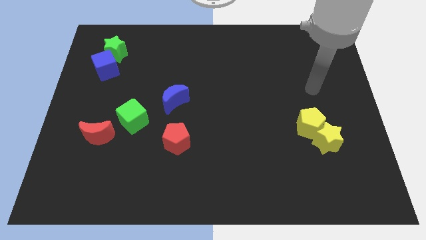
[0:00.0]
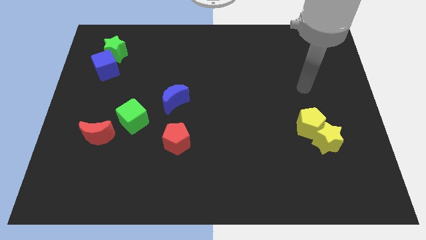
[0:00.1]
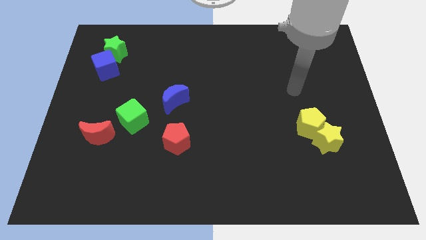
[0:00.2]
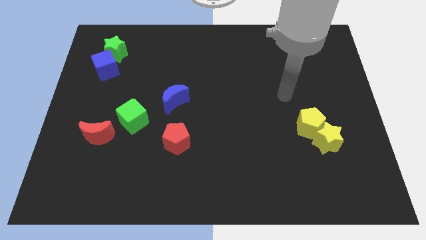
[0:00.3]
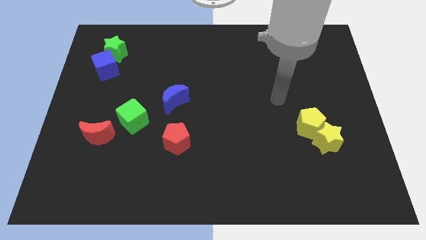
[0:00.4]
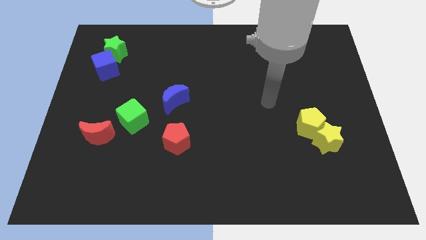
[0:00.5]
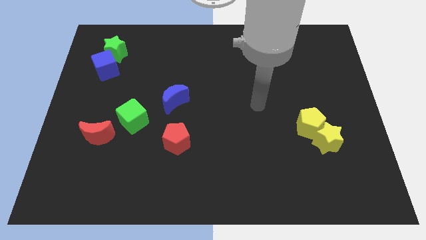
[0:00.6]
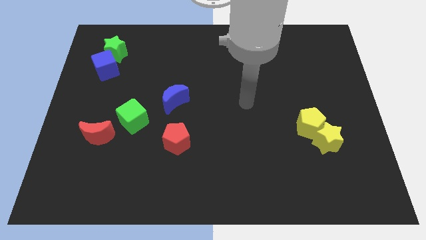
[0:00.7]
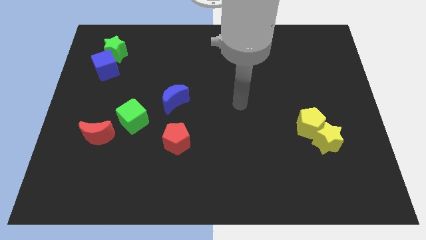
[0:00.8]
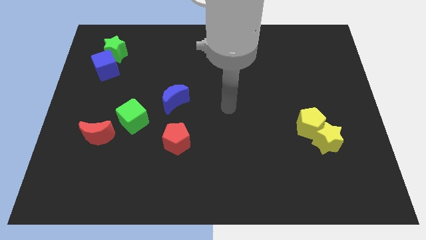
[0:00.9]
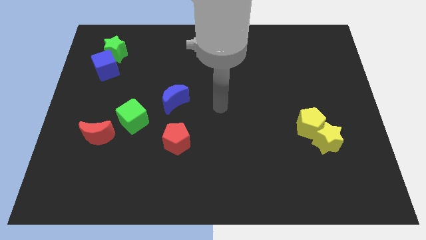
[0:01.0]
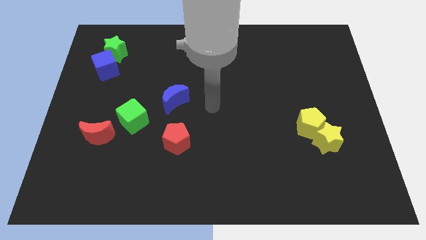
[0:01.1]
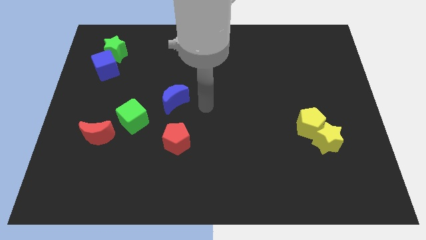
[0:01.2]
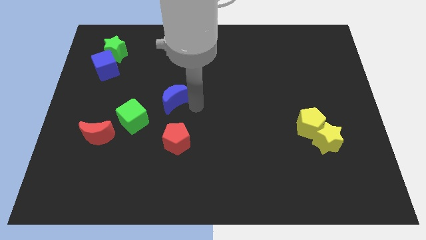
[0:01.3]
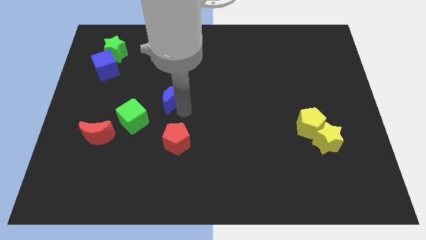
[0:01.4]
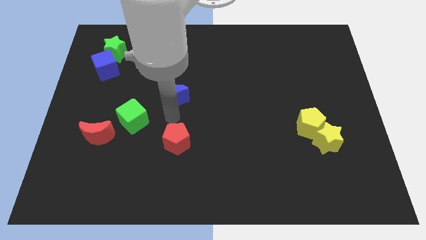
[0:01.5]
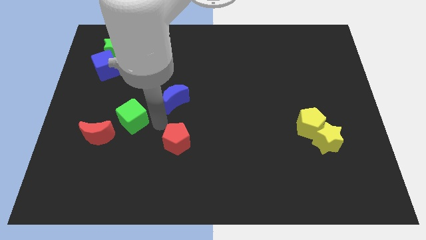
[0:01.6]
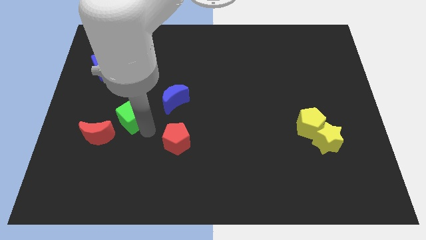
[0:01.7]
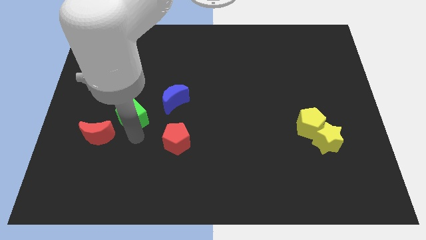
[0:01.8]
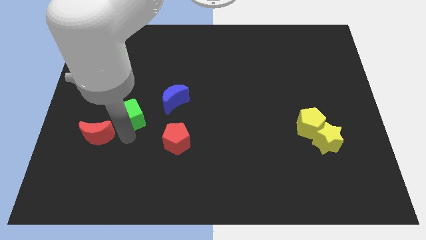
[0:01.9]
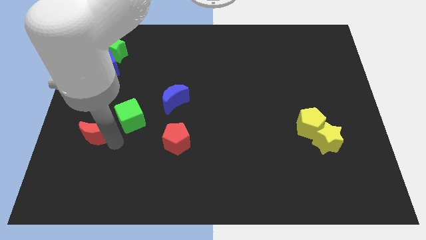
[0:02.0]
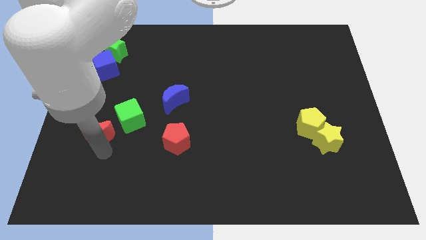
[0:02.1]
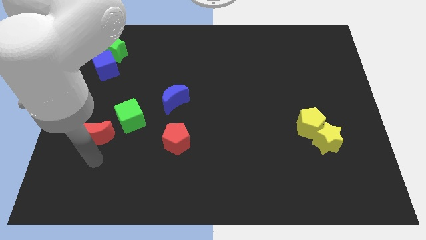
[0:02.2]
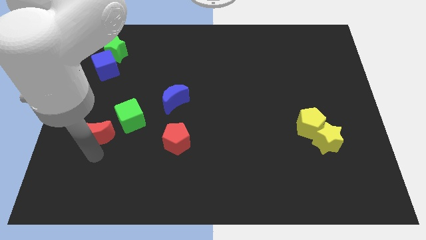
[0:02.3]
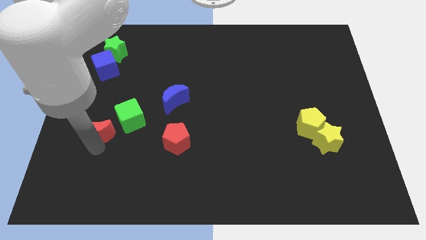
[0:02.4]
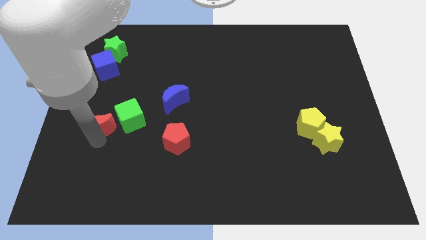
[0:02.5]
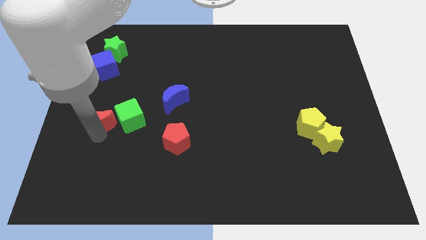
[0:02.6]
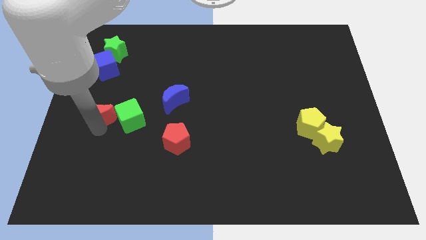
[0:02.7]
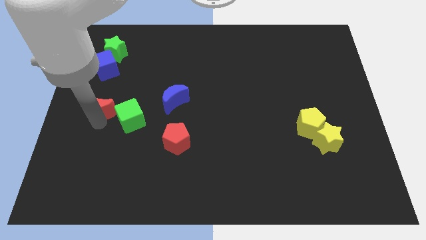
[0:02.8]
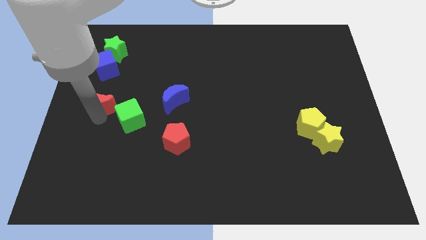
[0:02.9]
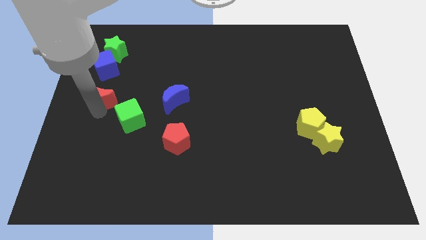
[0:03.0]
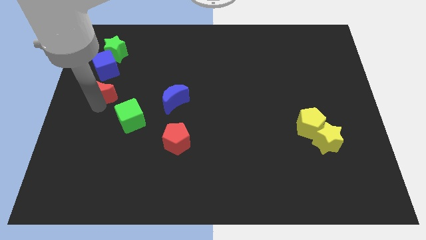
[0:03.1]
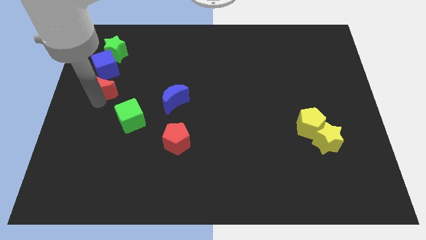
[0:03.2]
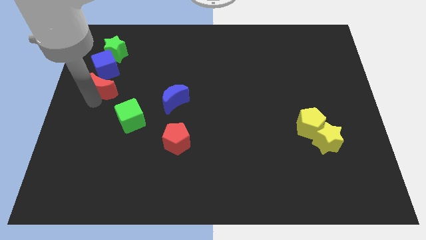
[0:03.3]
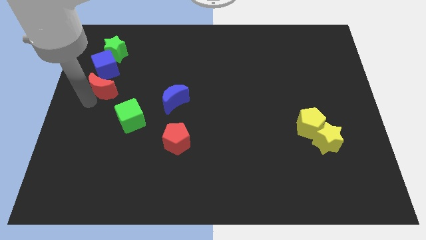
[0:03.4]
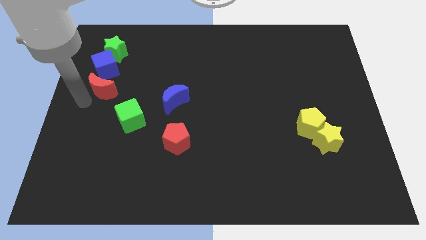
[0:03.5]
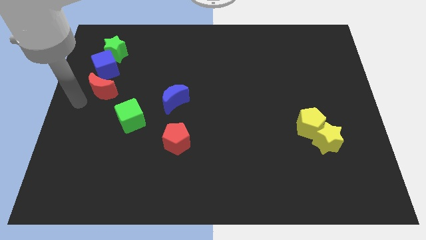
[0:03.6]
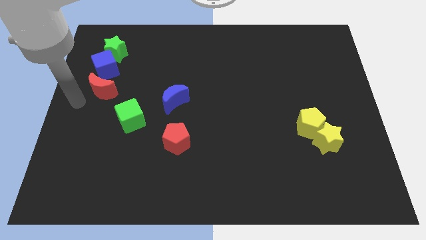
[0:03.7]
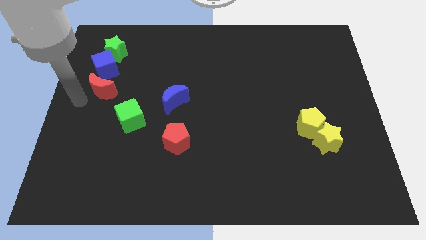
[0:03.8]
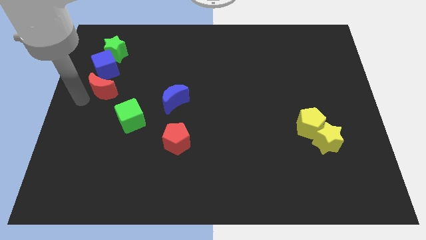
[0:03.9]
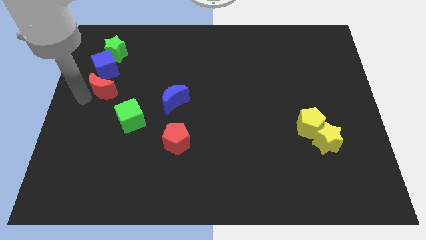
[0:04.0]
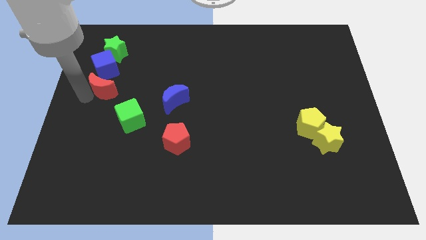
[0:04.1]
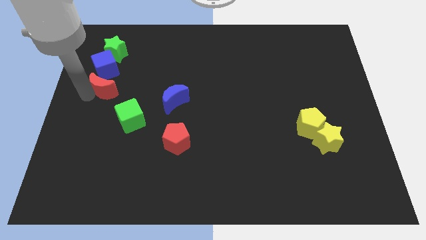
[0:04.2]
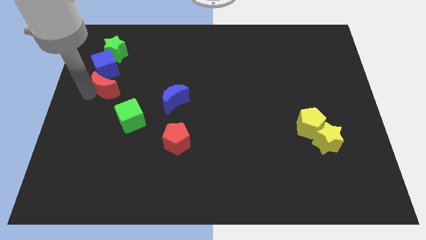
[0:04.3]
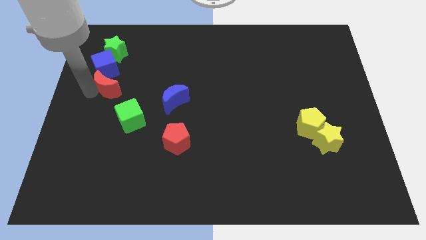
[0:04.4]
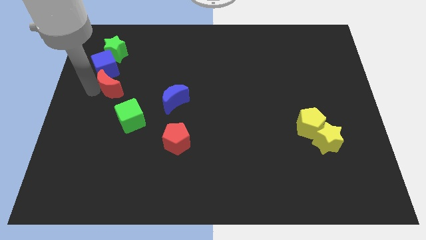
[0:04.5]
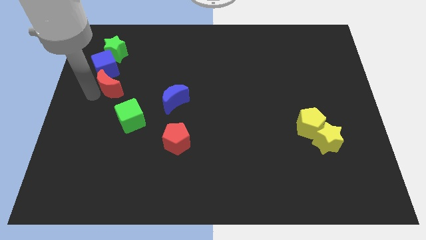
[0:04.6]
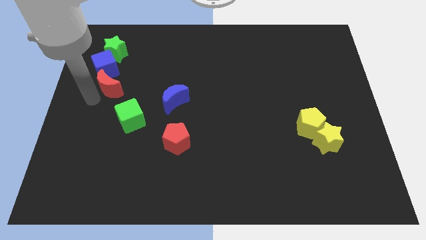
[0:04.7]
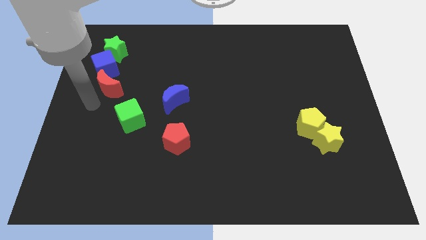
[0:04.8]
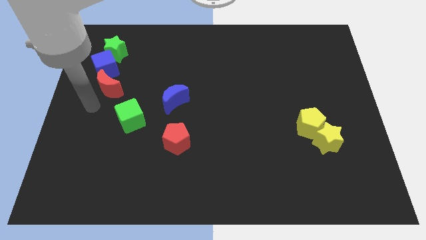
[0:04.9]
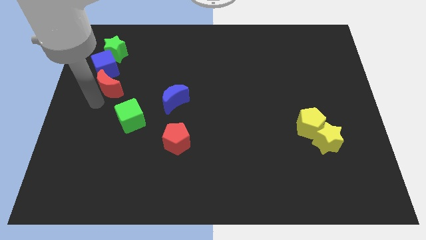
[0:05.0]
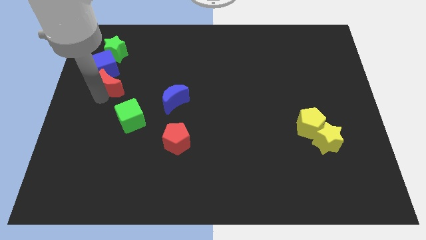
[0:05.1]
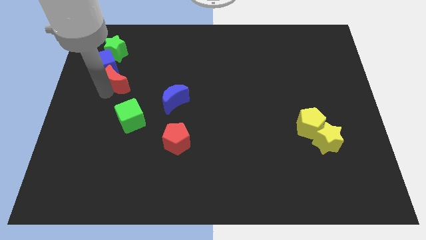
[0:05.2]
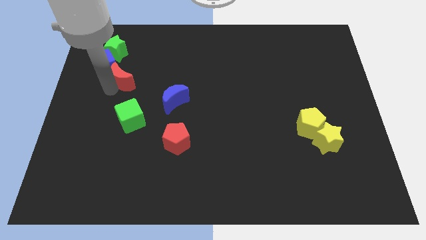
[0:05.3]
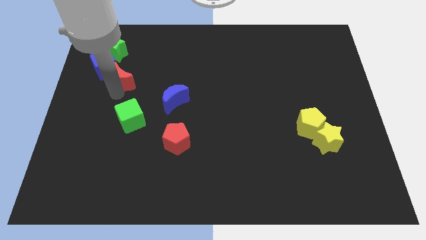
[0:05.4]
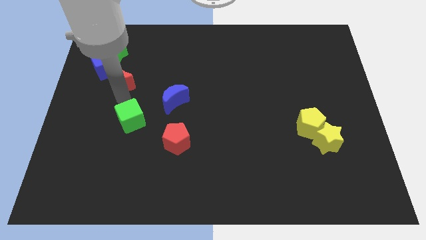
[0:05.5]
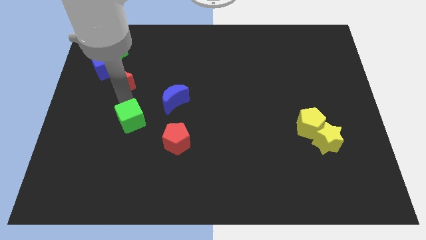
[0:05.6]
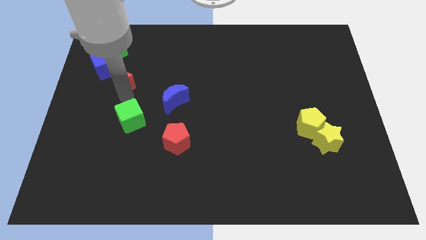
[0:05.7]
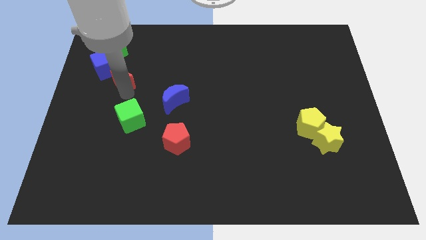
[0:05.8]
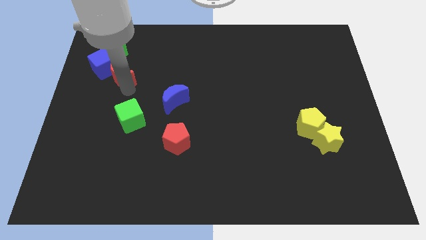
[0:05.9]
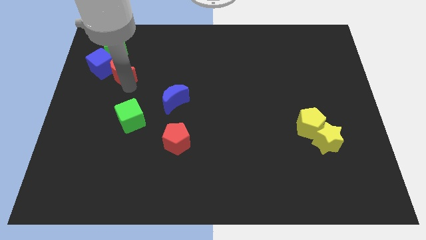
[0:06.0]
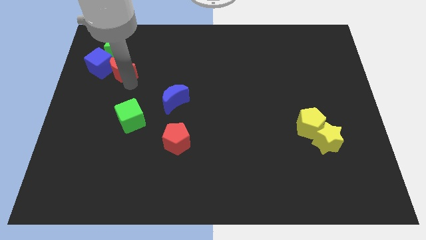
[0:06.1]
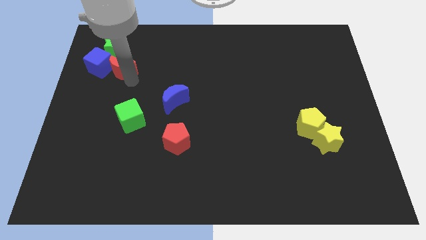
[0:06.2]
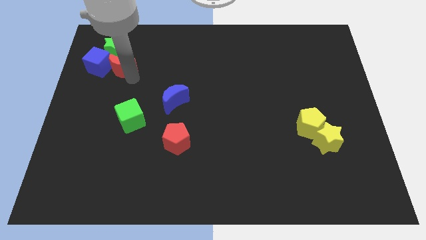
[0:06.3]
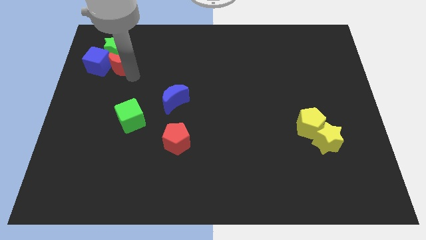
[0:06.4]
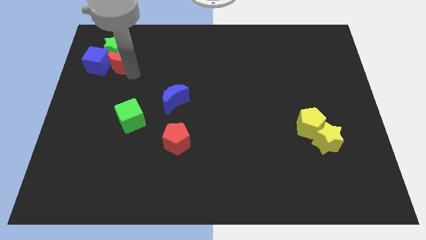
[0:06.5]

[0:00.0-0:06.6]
slide the red moon to the green star

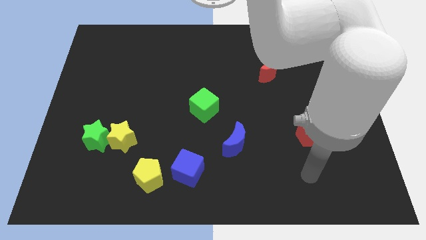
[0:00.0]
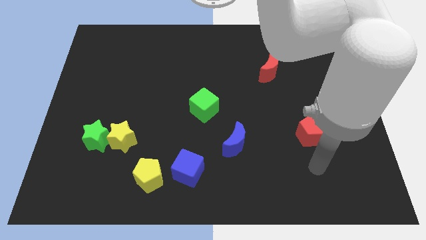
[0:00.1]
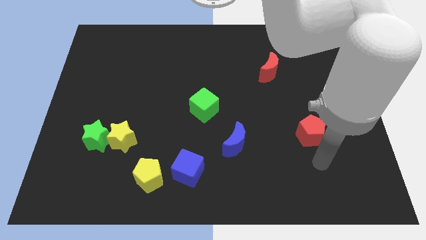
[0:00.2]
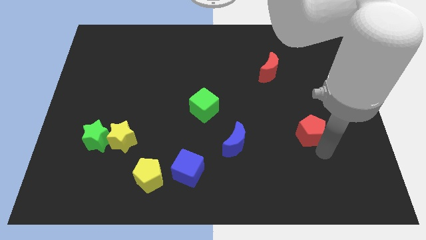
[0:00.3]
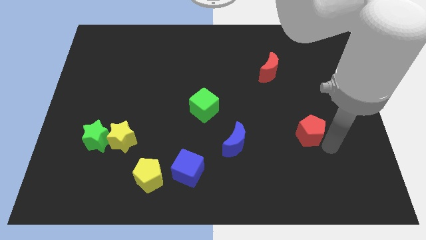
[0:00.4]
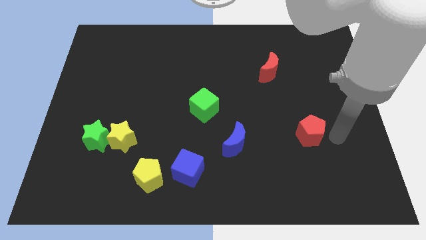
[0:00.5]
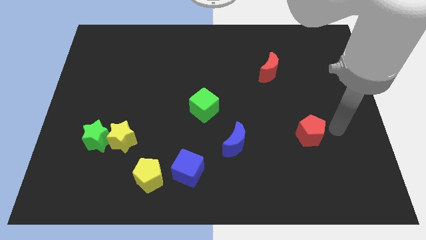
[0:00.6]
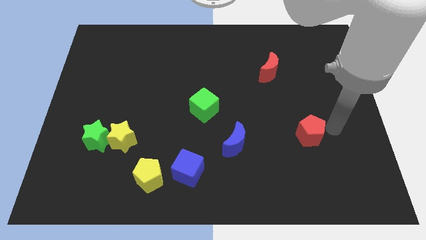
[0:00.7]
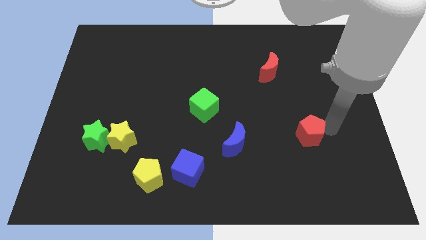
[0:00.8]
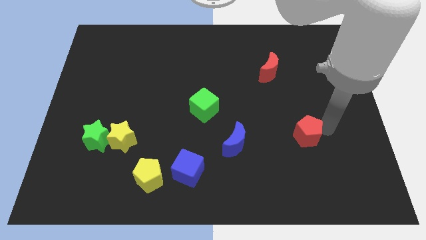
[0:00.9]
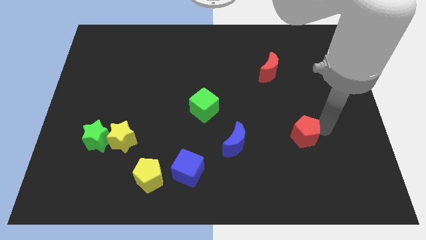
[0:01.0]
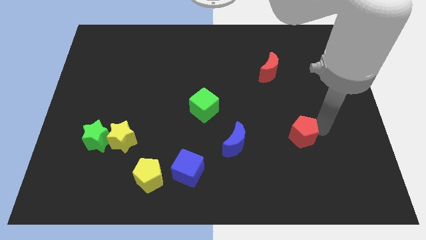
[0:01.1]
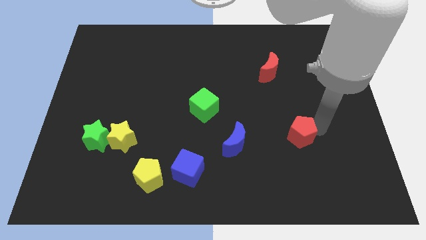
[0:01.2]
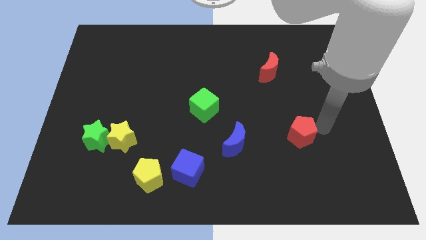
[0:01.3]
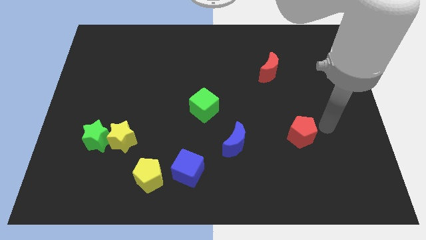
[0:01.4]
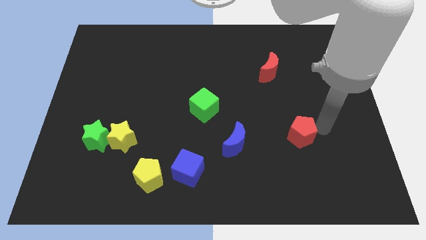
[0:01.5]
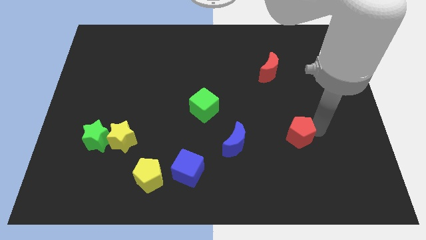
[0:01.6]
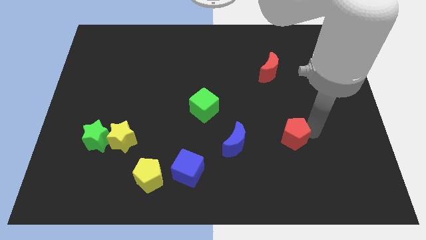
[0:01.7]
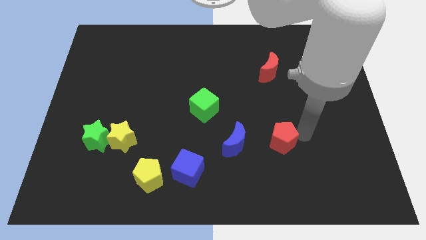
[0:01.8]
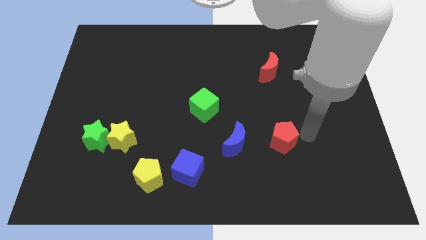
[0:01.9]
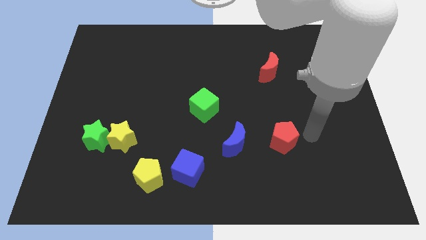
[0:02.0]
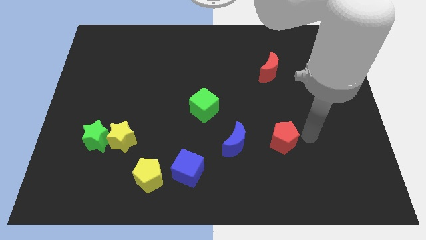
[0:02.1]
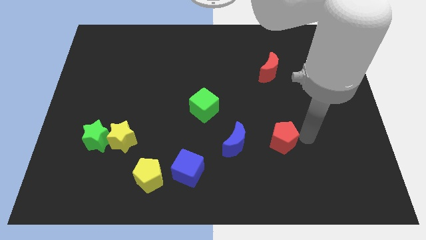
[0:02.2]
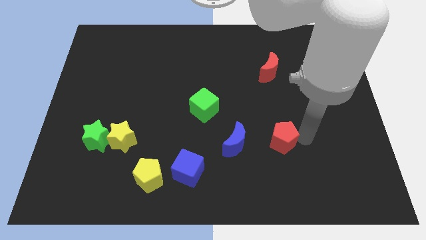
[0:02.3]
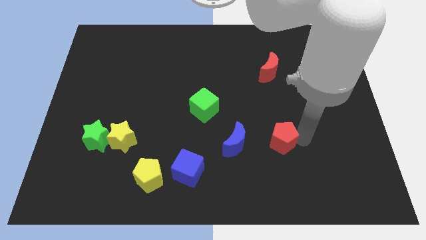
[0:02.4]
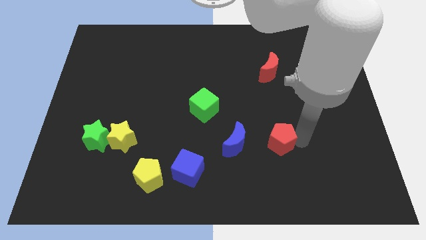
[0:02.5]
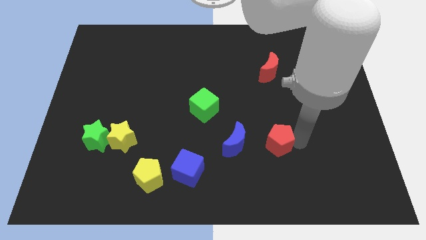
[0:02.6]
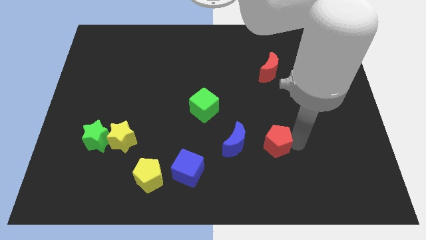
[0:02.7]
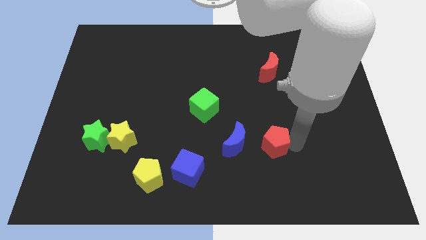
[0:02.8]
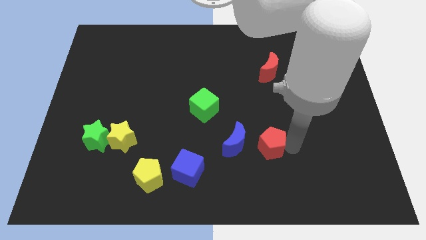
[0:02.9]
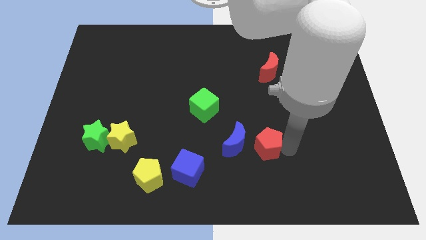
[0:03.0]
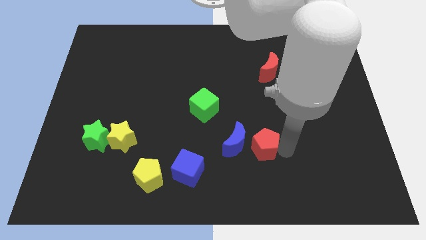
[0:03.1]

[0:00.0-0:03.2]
put the red pentagon close to the blue moon
